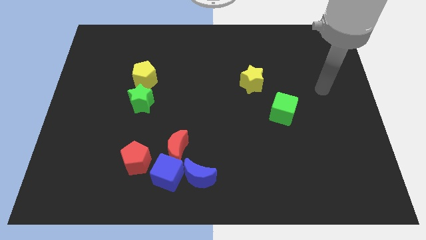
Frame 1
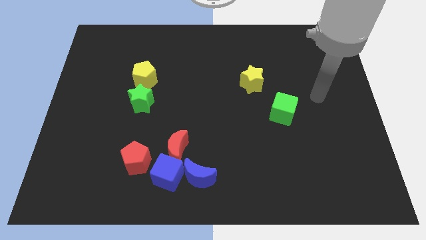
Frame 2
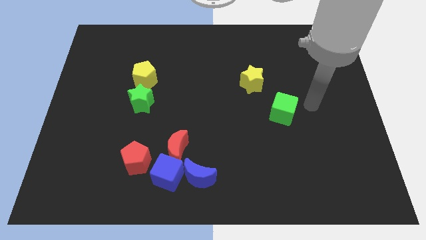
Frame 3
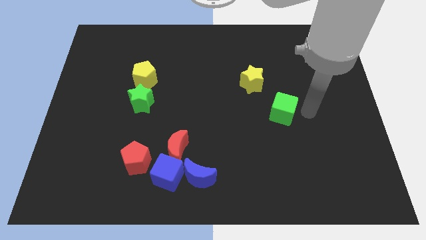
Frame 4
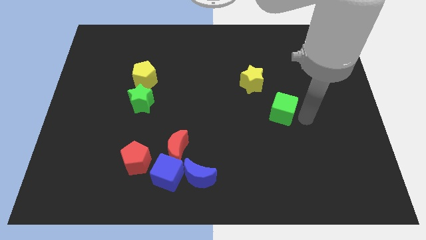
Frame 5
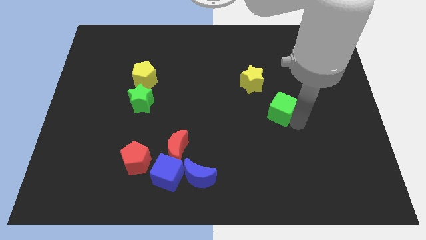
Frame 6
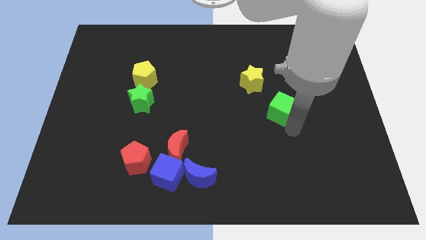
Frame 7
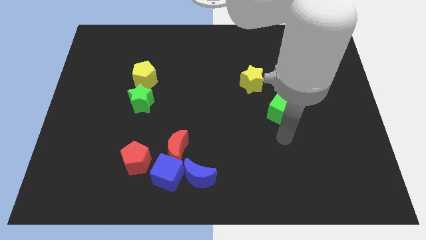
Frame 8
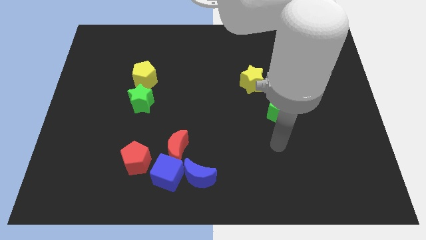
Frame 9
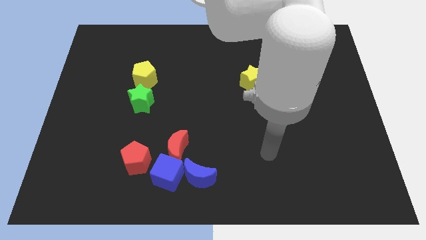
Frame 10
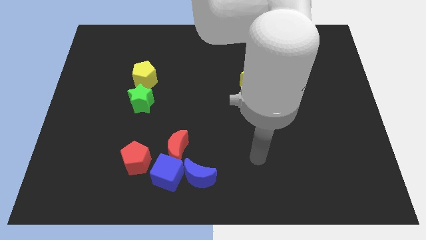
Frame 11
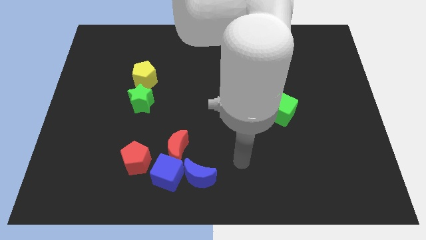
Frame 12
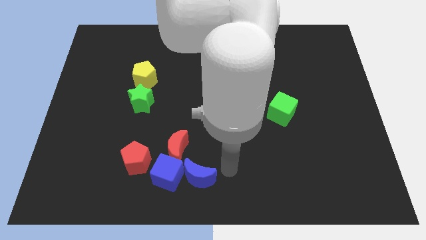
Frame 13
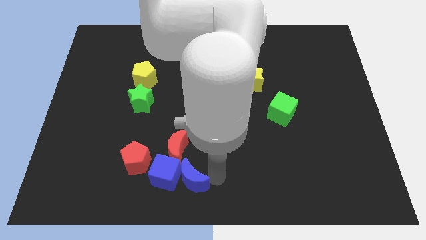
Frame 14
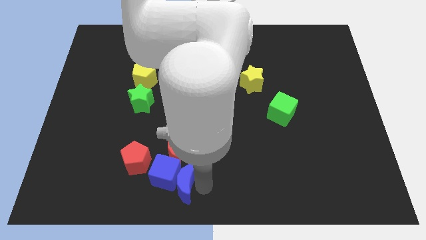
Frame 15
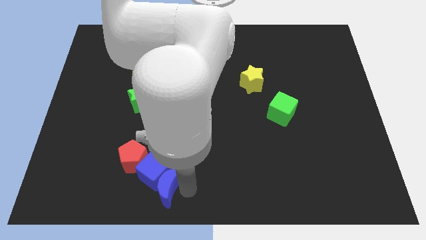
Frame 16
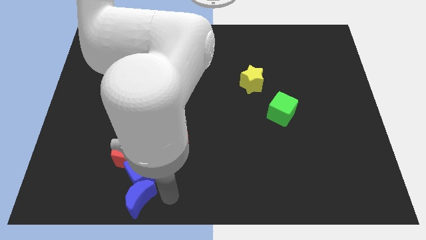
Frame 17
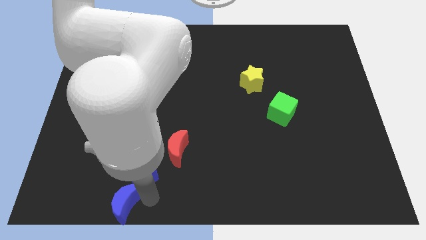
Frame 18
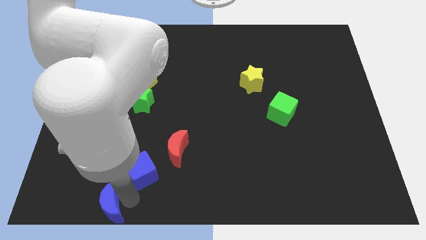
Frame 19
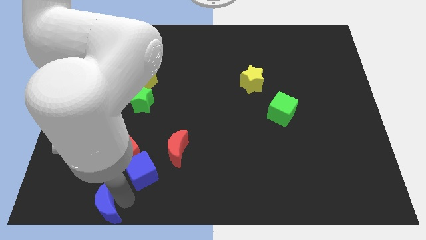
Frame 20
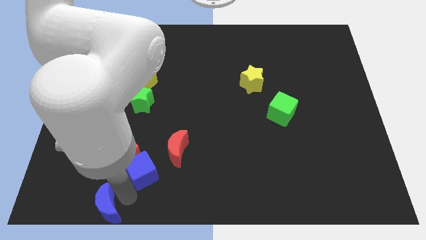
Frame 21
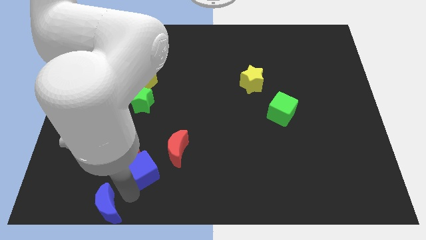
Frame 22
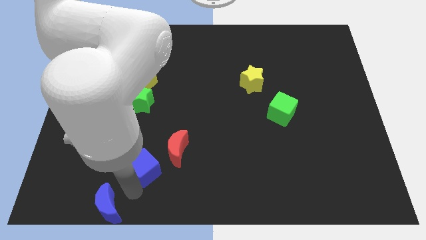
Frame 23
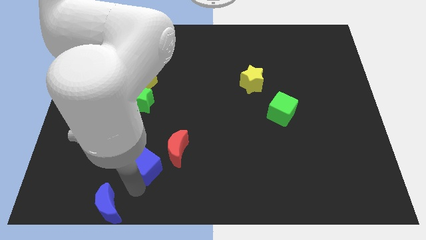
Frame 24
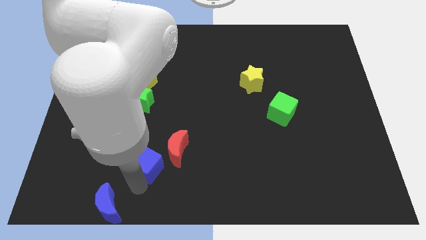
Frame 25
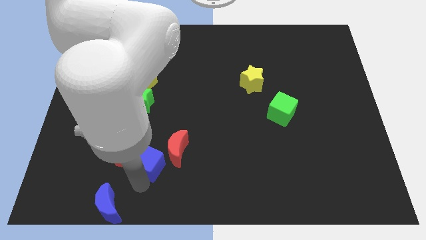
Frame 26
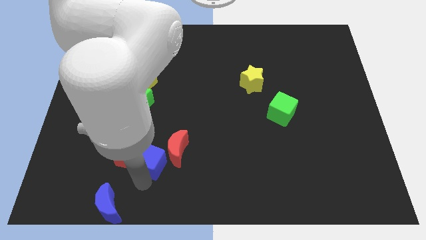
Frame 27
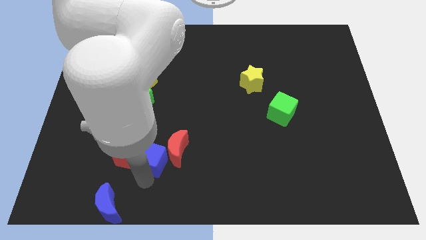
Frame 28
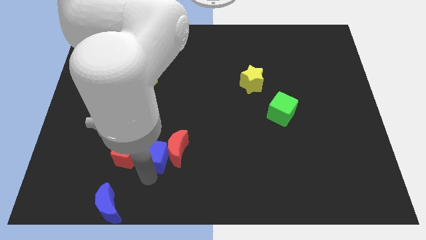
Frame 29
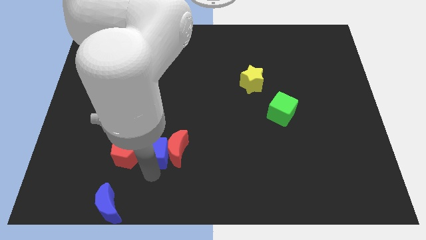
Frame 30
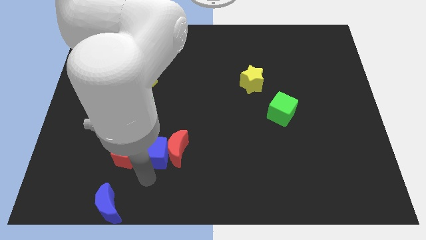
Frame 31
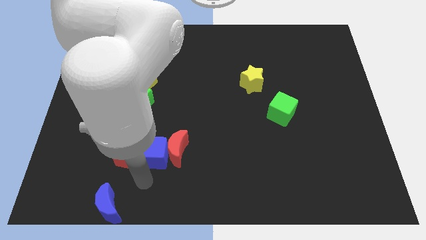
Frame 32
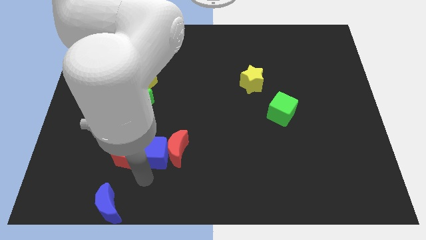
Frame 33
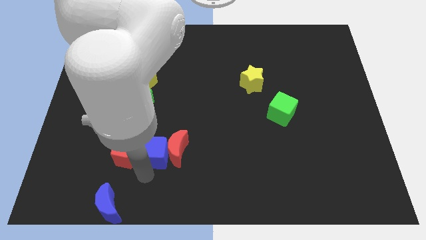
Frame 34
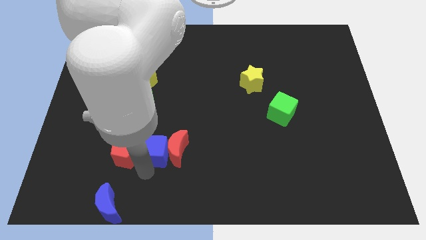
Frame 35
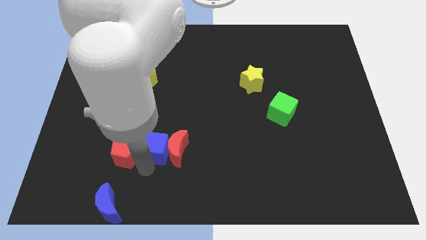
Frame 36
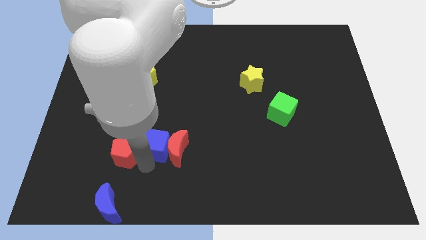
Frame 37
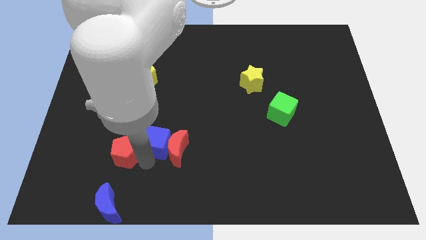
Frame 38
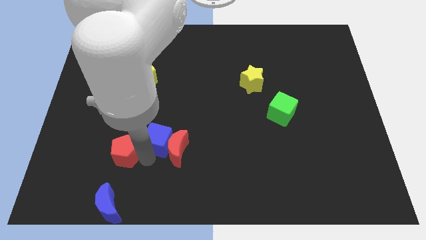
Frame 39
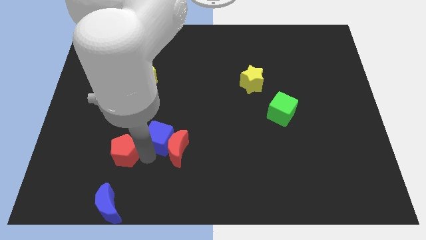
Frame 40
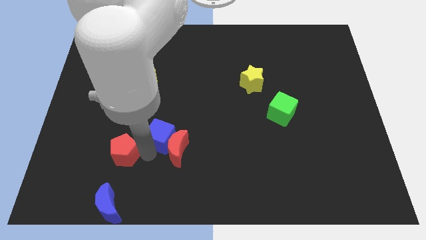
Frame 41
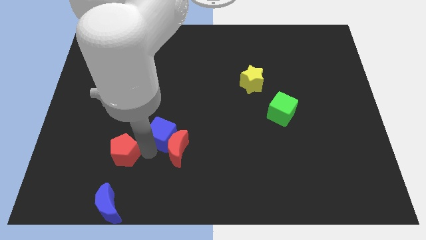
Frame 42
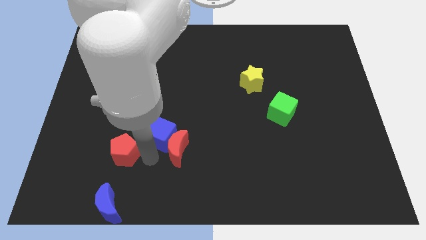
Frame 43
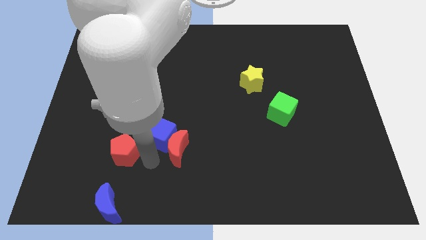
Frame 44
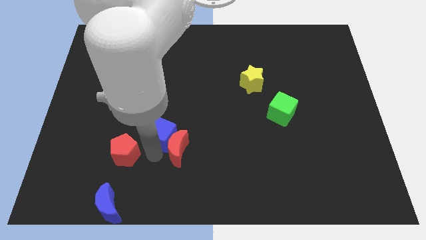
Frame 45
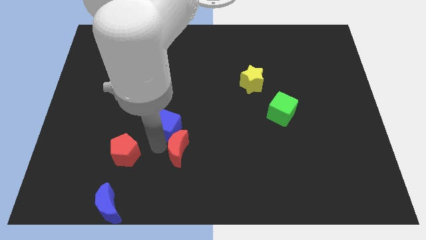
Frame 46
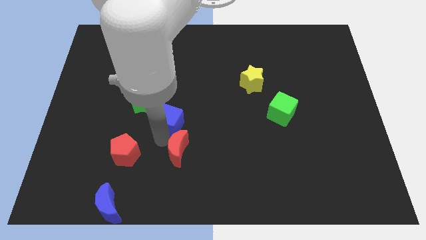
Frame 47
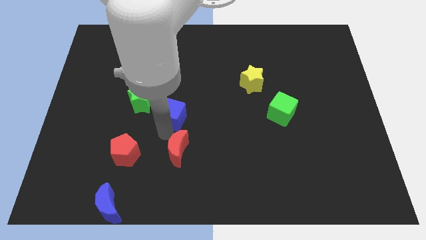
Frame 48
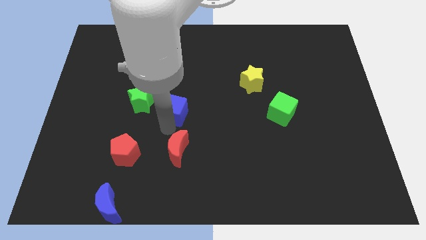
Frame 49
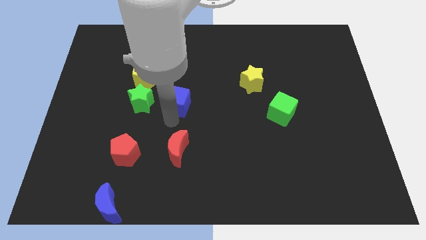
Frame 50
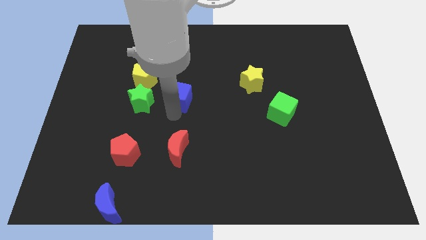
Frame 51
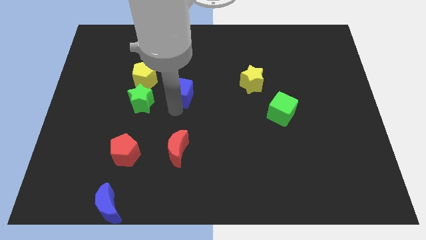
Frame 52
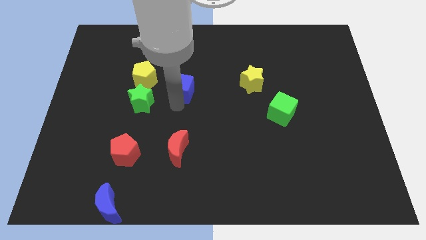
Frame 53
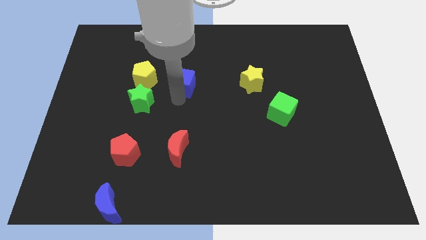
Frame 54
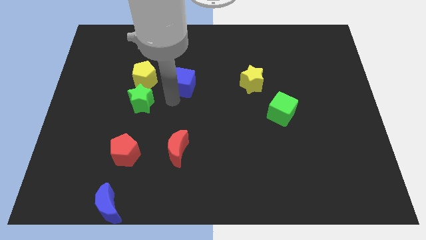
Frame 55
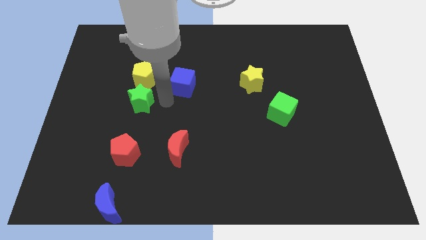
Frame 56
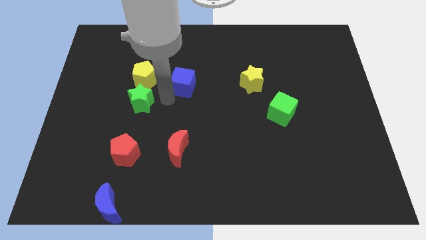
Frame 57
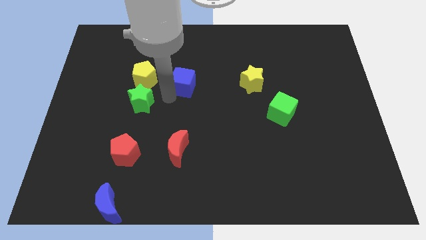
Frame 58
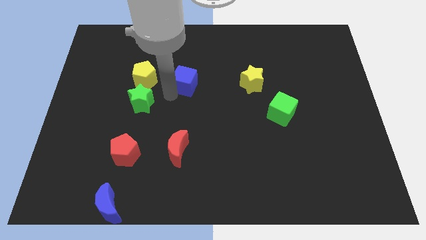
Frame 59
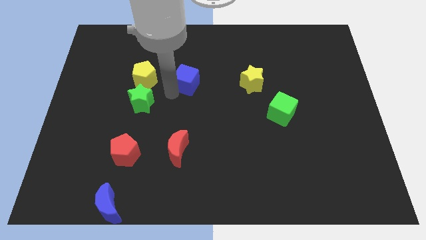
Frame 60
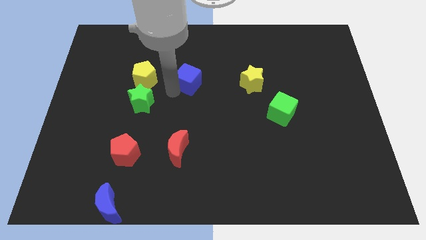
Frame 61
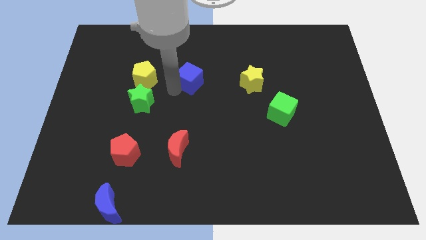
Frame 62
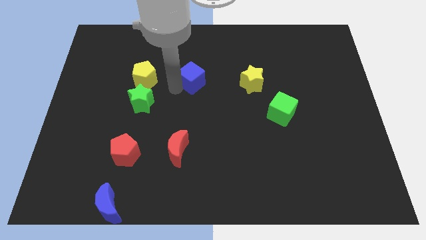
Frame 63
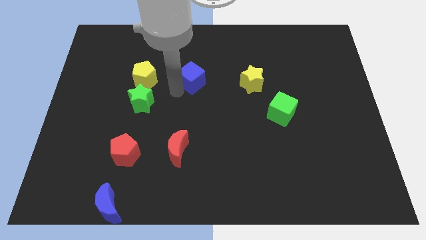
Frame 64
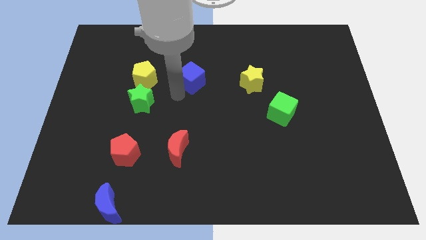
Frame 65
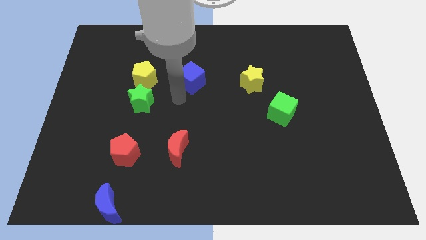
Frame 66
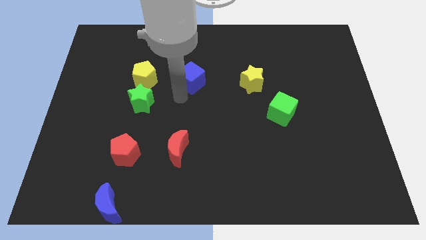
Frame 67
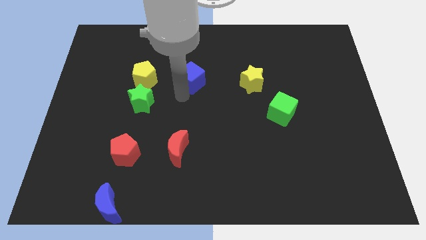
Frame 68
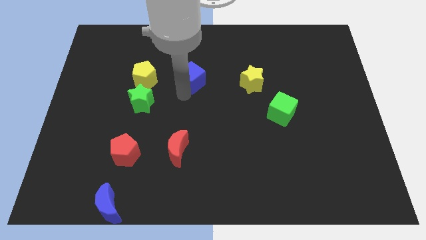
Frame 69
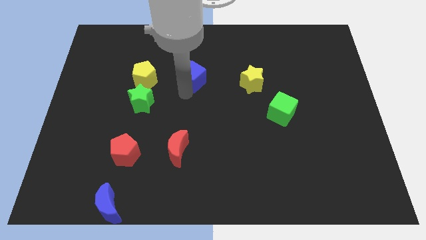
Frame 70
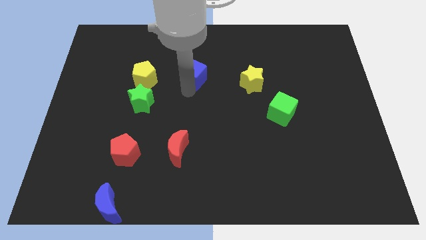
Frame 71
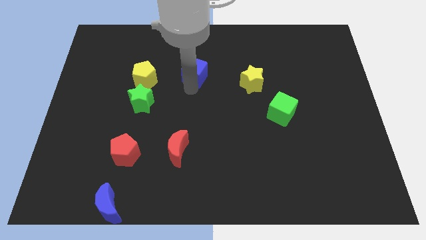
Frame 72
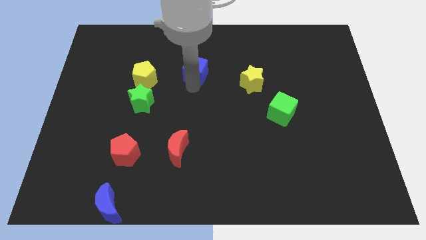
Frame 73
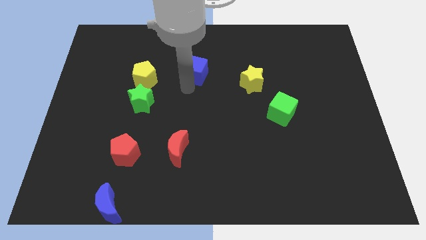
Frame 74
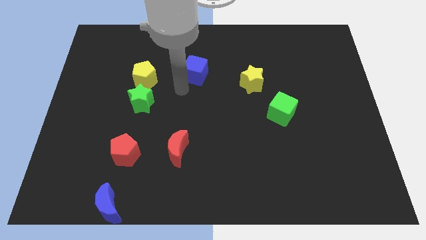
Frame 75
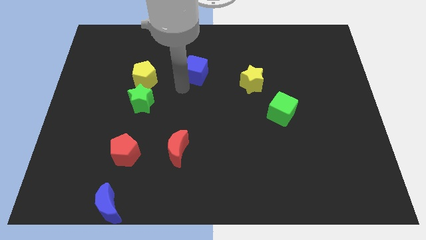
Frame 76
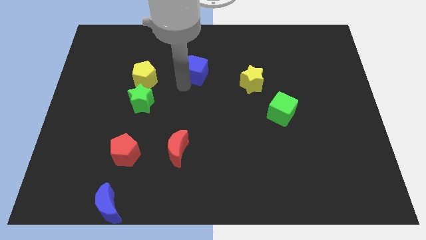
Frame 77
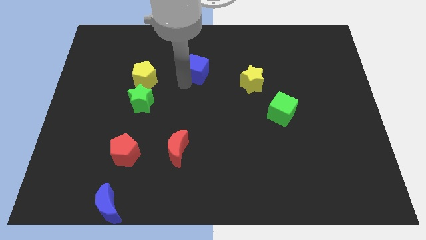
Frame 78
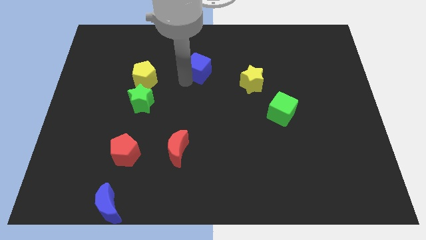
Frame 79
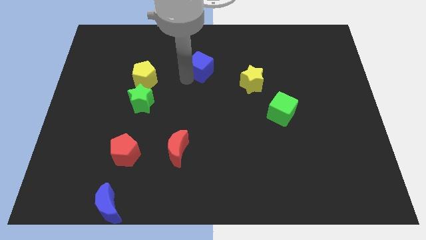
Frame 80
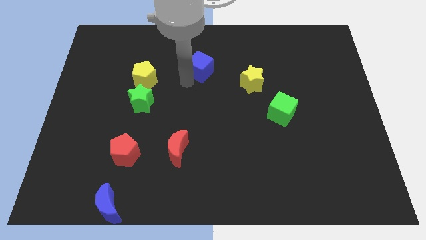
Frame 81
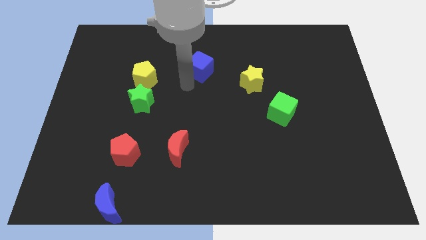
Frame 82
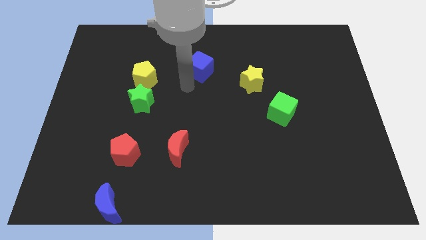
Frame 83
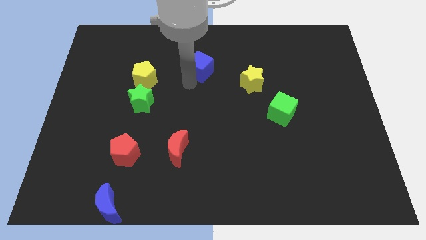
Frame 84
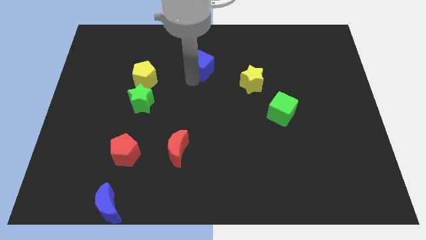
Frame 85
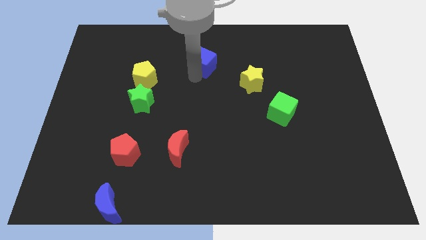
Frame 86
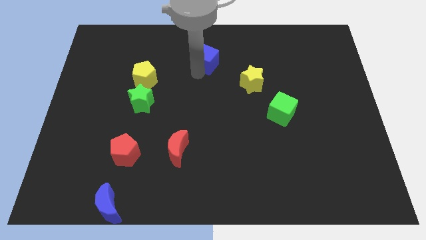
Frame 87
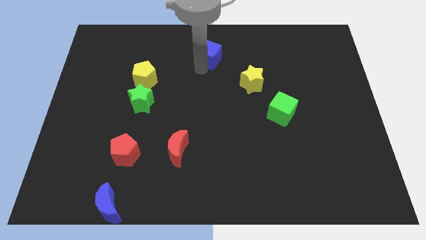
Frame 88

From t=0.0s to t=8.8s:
slide the blue cube to the towards your base
